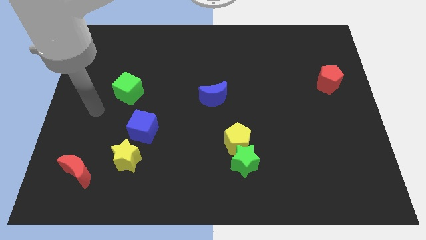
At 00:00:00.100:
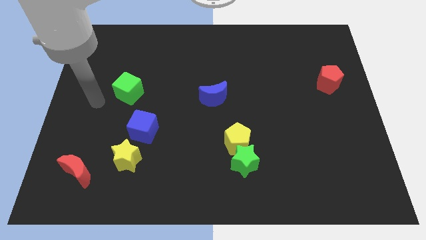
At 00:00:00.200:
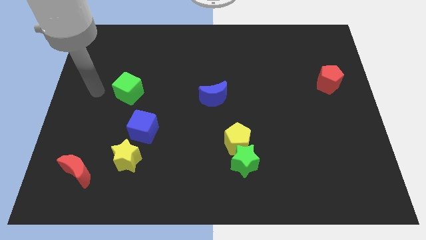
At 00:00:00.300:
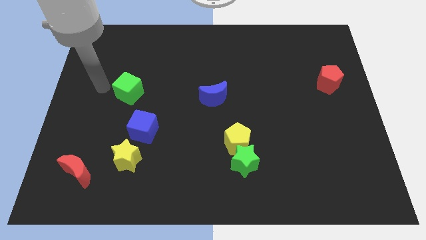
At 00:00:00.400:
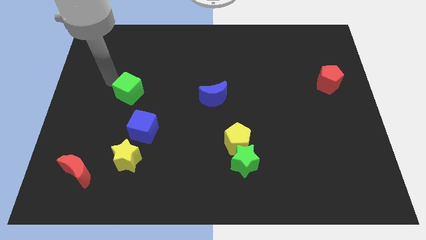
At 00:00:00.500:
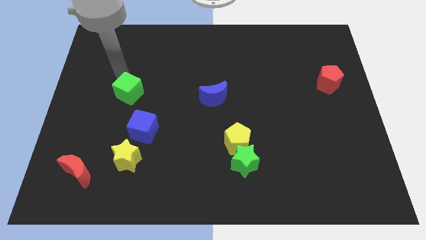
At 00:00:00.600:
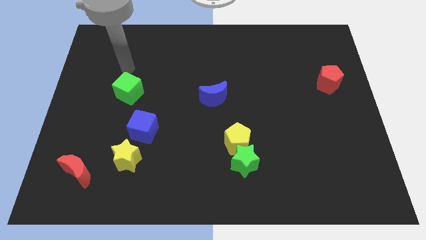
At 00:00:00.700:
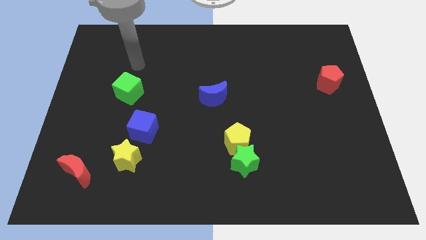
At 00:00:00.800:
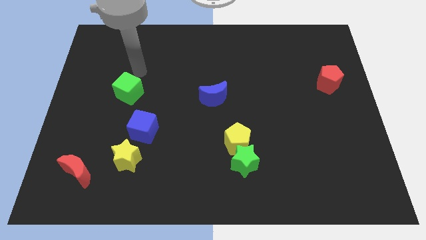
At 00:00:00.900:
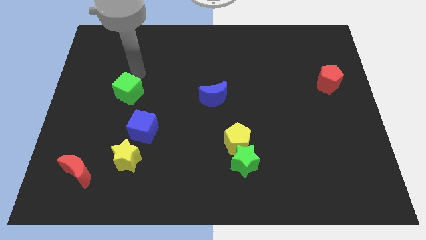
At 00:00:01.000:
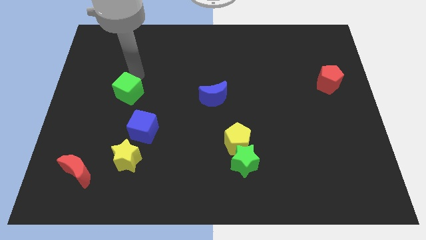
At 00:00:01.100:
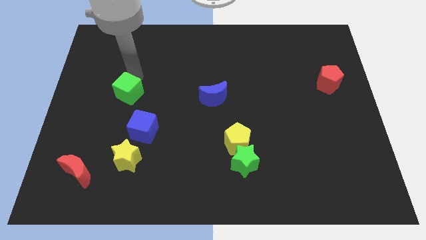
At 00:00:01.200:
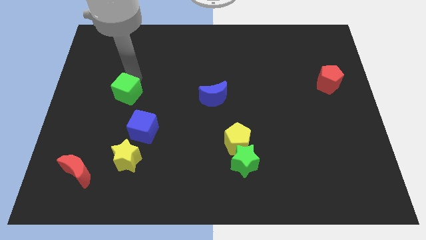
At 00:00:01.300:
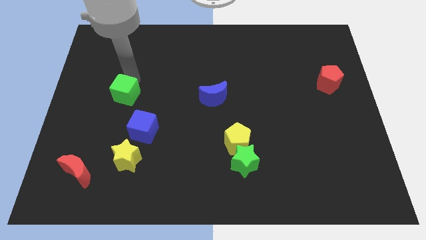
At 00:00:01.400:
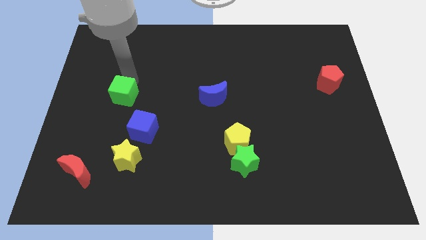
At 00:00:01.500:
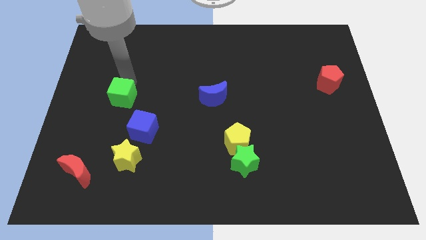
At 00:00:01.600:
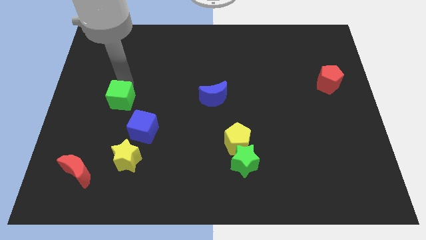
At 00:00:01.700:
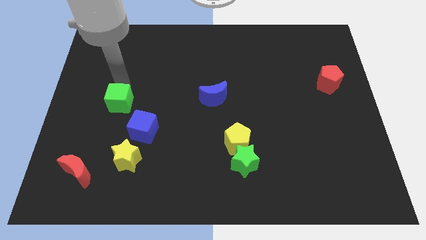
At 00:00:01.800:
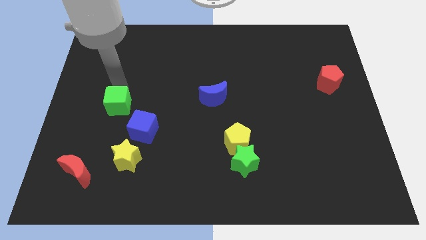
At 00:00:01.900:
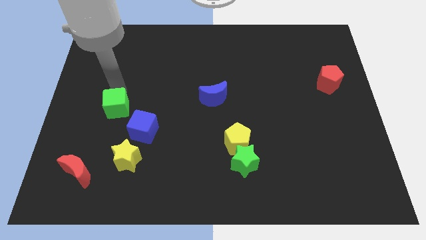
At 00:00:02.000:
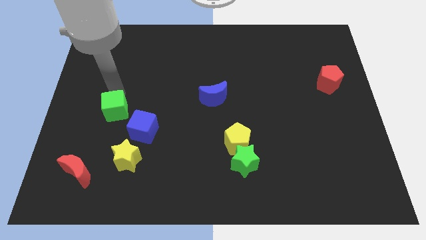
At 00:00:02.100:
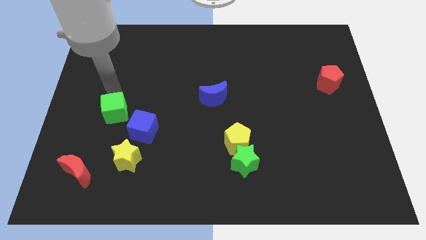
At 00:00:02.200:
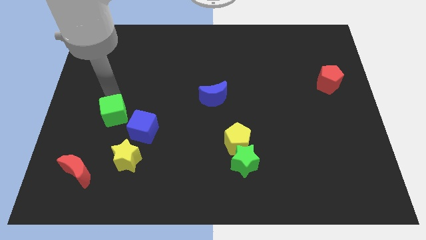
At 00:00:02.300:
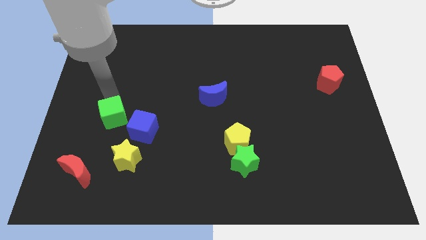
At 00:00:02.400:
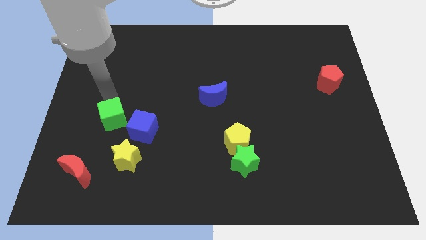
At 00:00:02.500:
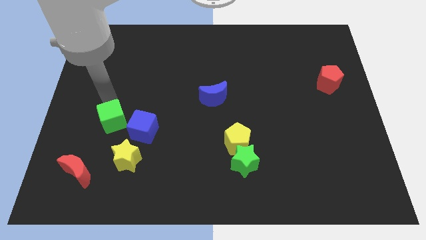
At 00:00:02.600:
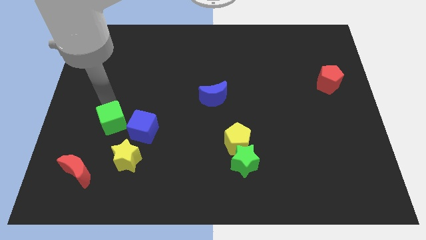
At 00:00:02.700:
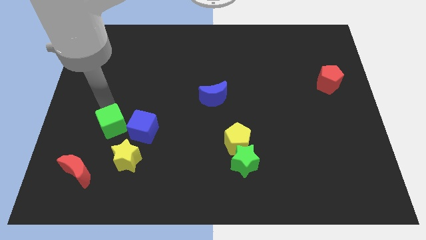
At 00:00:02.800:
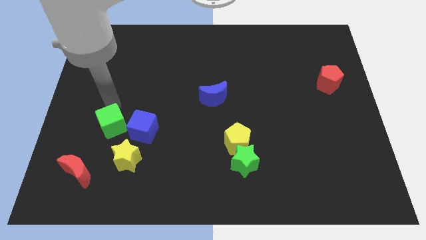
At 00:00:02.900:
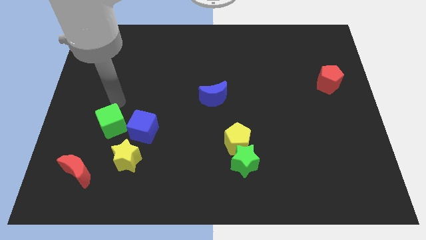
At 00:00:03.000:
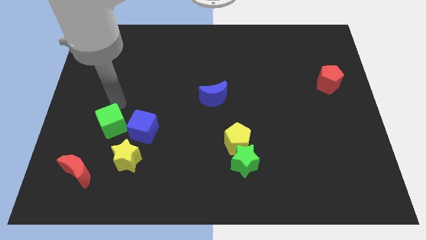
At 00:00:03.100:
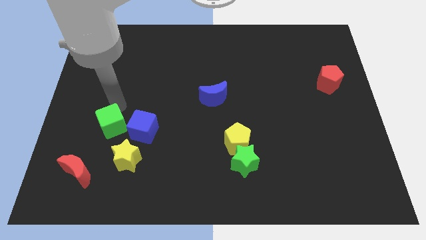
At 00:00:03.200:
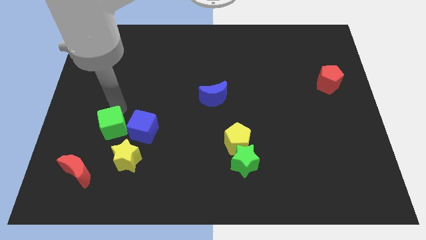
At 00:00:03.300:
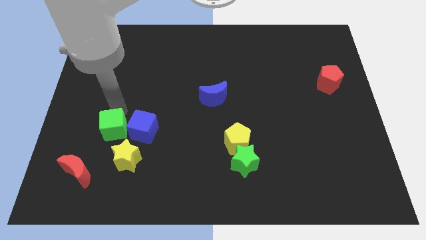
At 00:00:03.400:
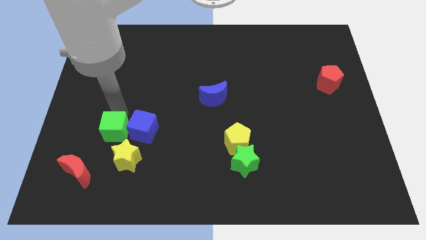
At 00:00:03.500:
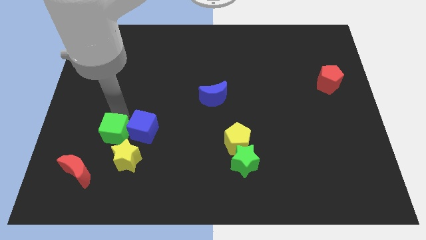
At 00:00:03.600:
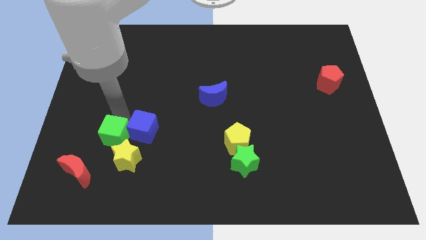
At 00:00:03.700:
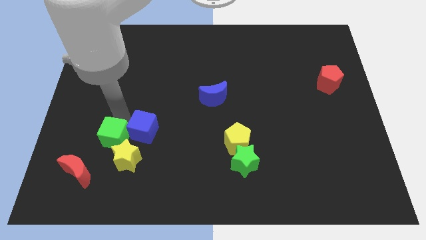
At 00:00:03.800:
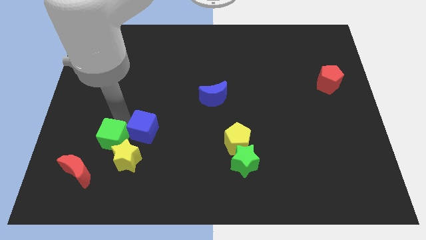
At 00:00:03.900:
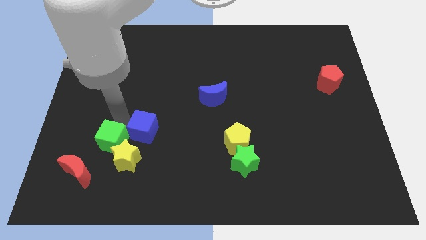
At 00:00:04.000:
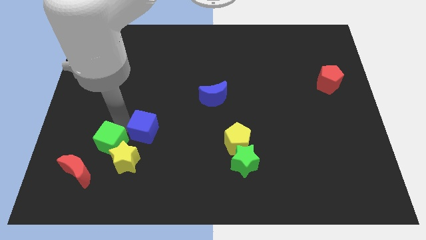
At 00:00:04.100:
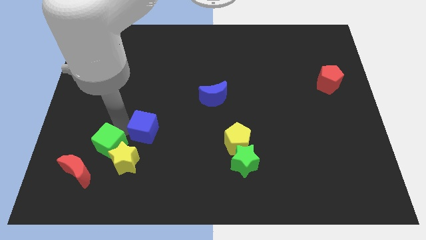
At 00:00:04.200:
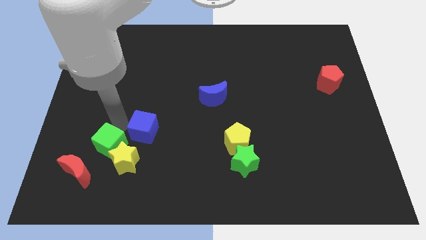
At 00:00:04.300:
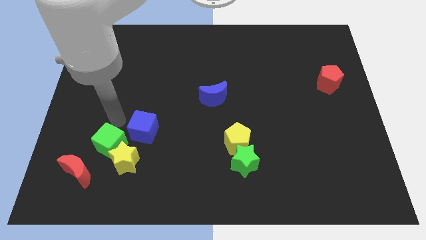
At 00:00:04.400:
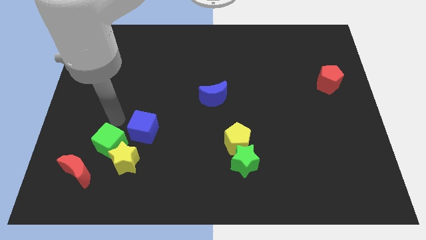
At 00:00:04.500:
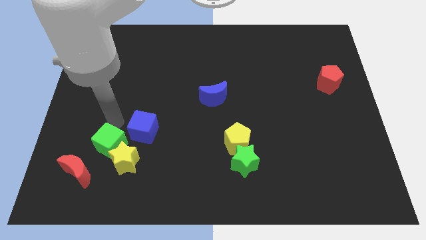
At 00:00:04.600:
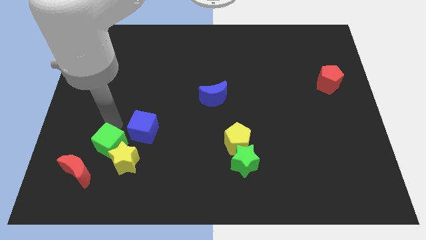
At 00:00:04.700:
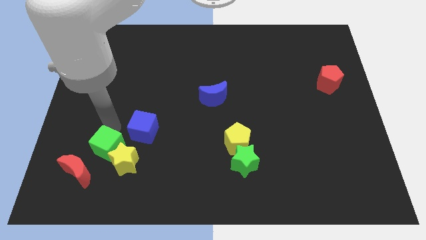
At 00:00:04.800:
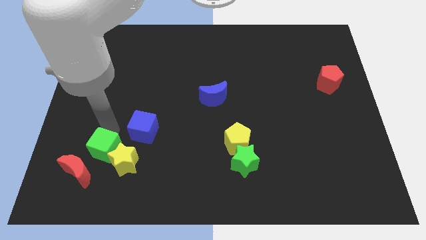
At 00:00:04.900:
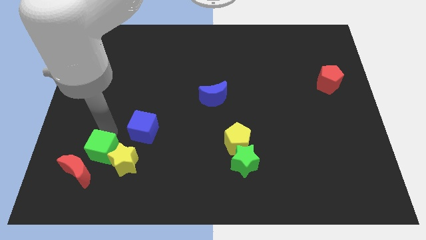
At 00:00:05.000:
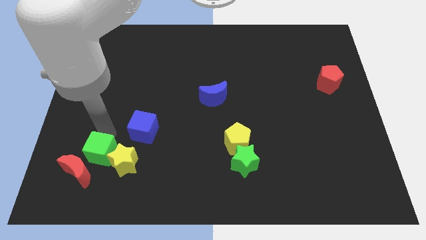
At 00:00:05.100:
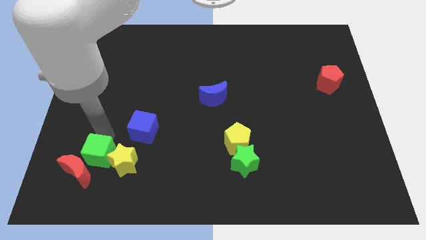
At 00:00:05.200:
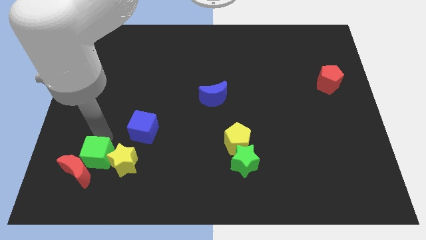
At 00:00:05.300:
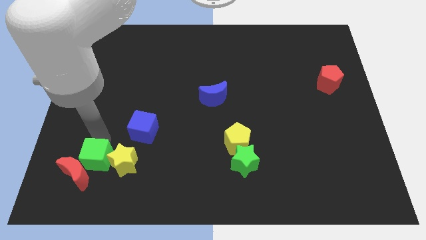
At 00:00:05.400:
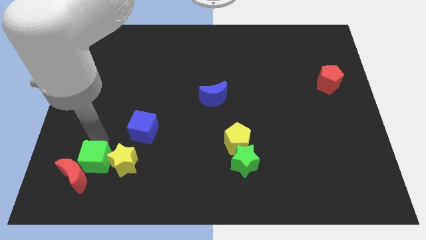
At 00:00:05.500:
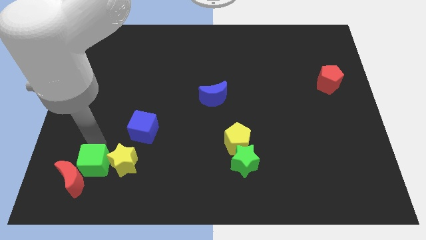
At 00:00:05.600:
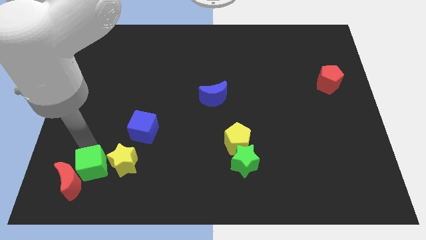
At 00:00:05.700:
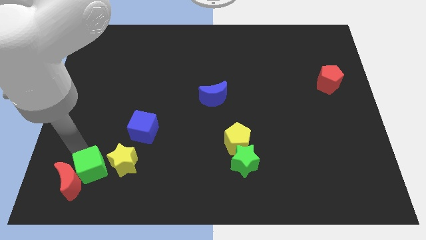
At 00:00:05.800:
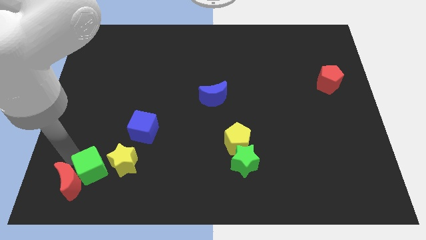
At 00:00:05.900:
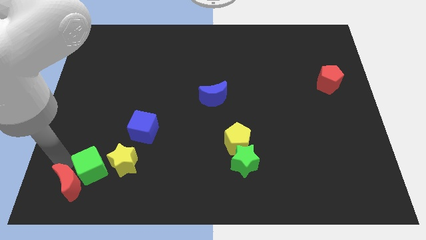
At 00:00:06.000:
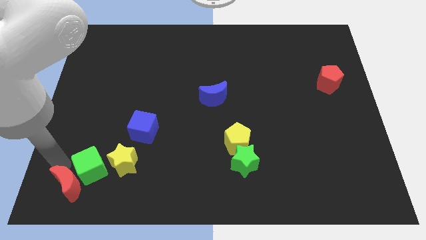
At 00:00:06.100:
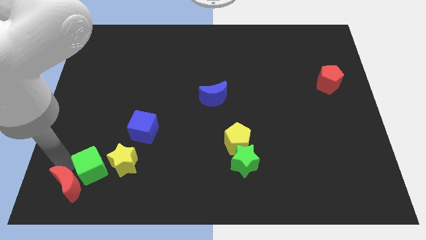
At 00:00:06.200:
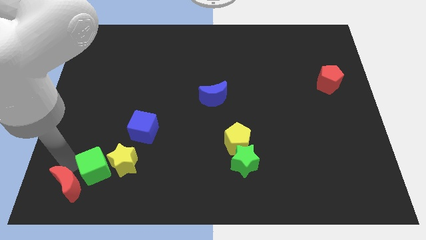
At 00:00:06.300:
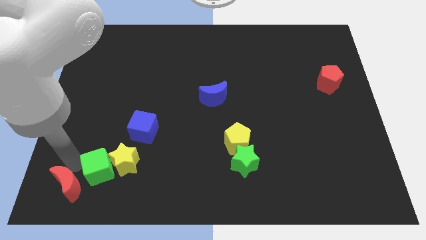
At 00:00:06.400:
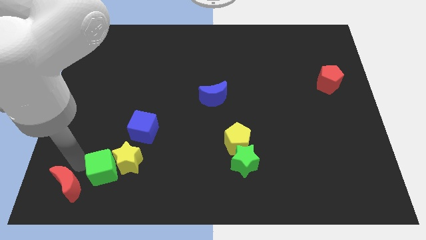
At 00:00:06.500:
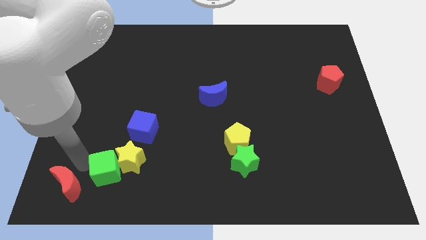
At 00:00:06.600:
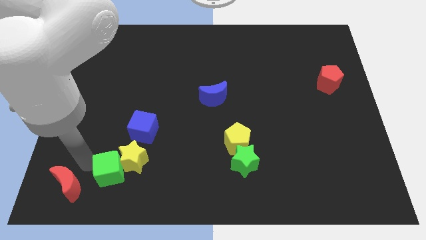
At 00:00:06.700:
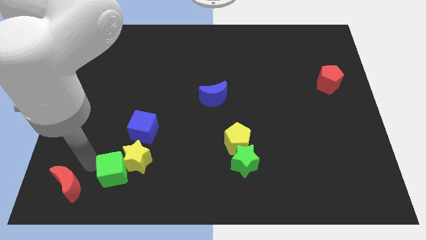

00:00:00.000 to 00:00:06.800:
push the green cube below the blue cube

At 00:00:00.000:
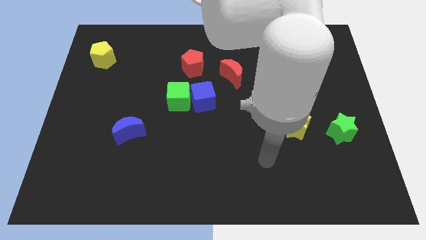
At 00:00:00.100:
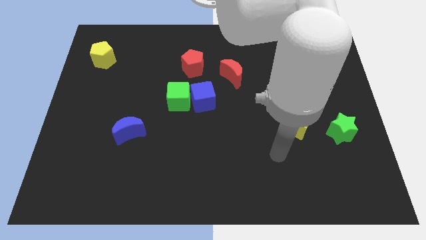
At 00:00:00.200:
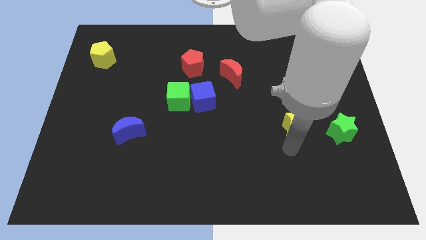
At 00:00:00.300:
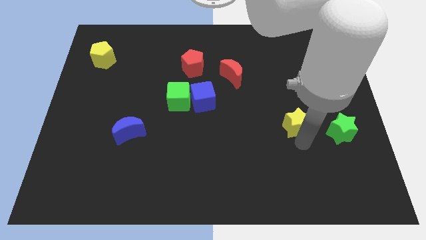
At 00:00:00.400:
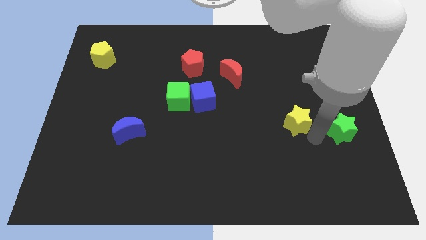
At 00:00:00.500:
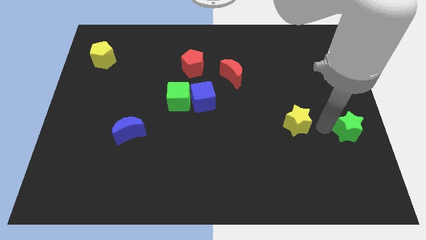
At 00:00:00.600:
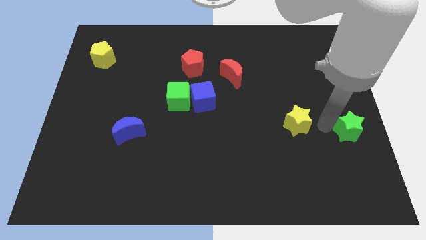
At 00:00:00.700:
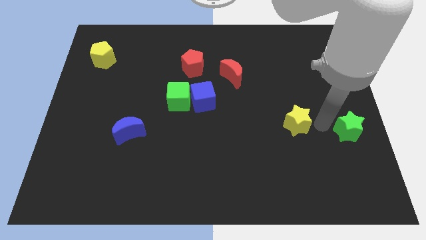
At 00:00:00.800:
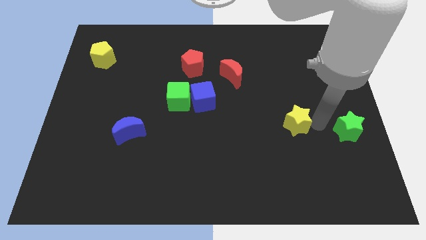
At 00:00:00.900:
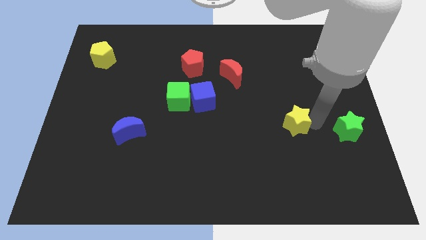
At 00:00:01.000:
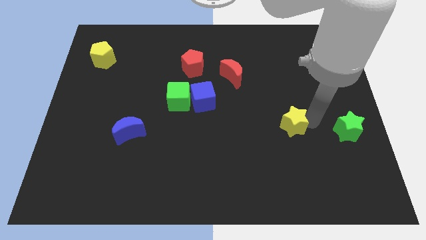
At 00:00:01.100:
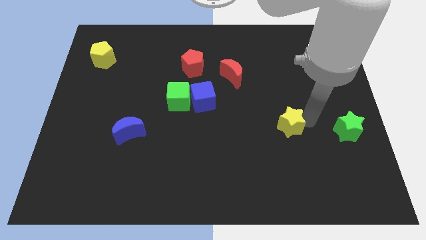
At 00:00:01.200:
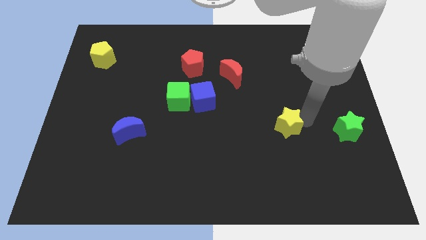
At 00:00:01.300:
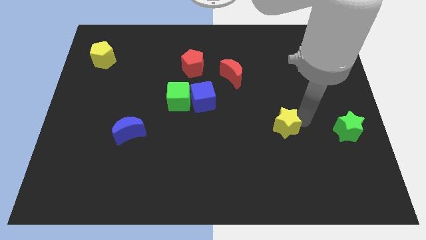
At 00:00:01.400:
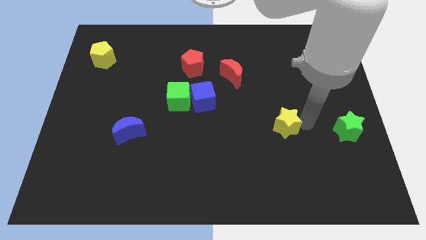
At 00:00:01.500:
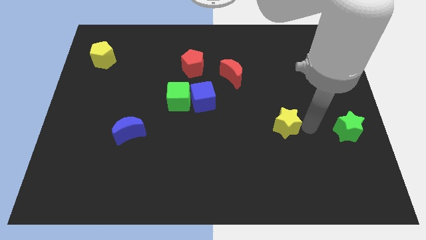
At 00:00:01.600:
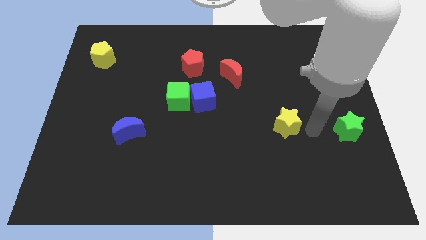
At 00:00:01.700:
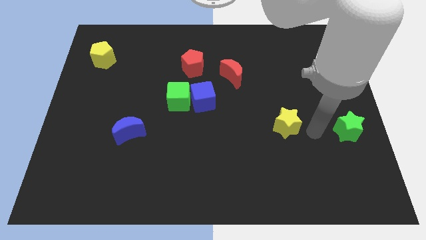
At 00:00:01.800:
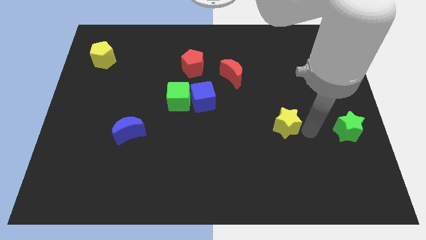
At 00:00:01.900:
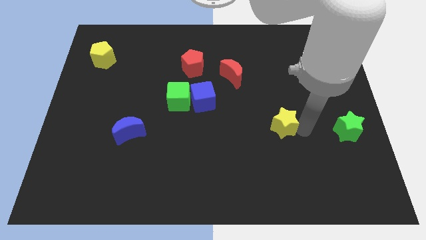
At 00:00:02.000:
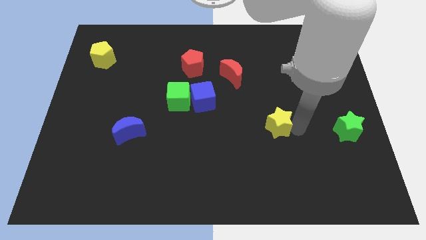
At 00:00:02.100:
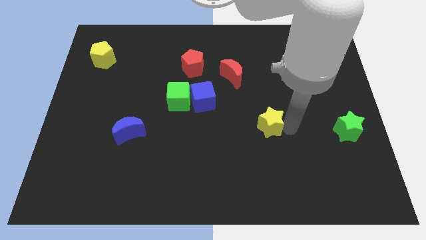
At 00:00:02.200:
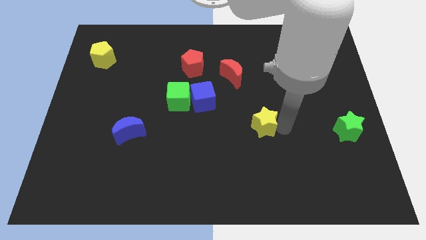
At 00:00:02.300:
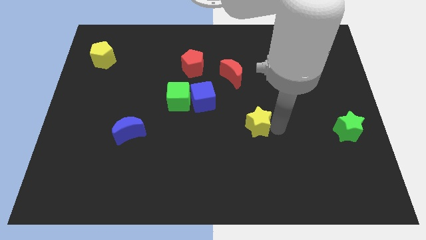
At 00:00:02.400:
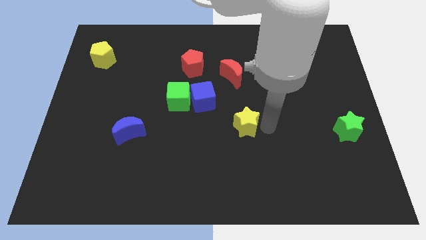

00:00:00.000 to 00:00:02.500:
put the yellow star to the bottom right side of the blue cube
